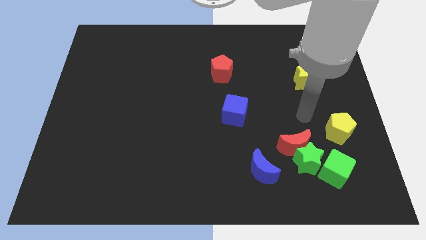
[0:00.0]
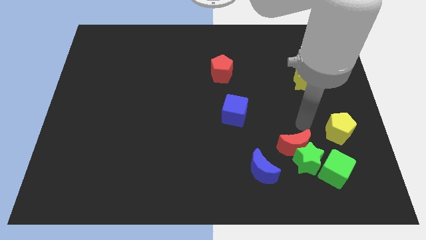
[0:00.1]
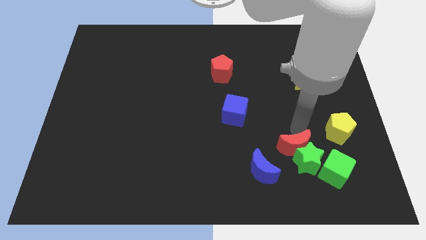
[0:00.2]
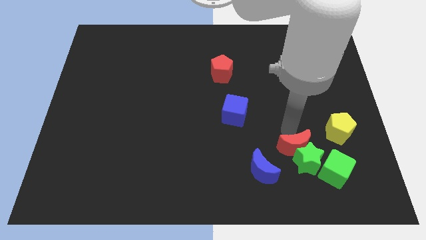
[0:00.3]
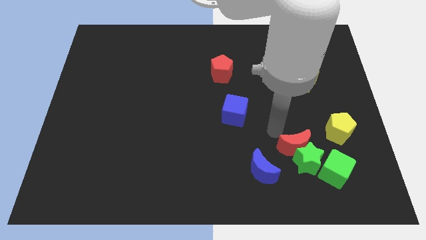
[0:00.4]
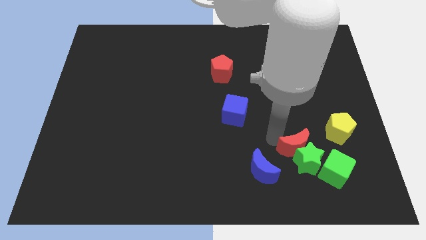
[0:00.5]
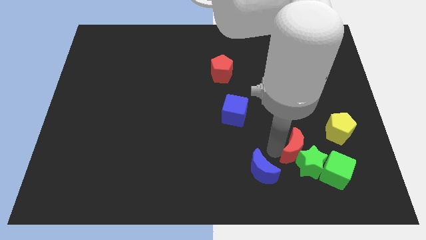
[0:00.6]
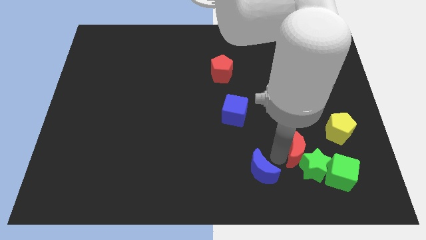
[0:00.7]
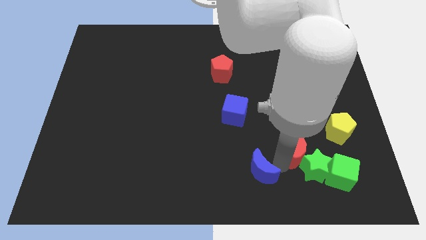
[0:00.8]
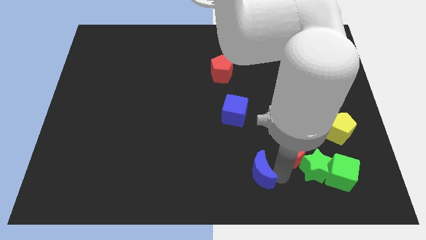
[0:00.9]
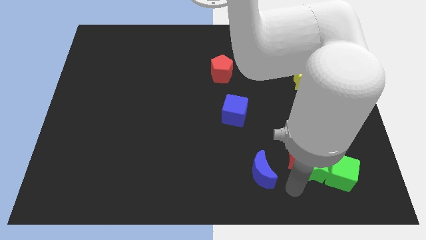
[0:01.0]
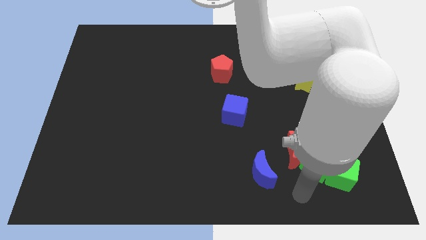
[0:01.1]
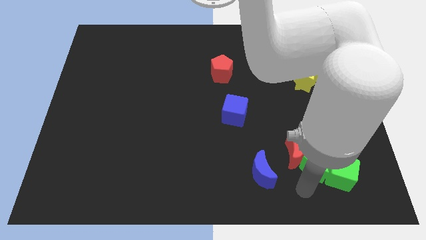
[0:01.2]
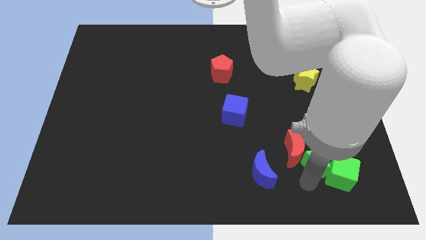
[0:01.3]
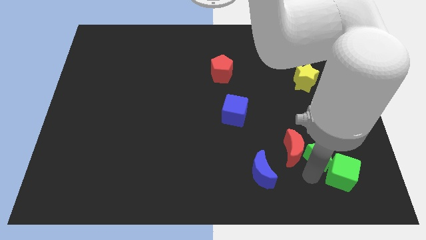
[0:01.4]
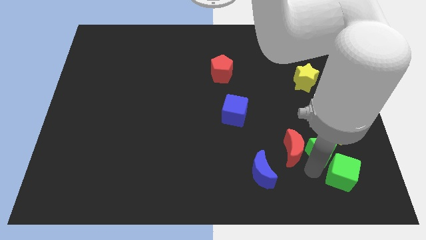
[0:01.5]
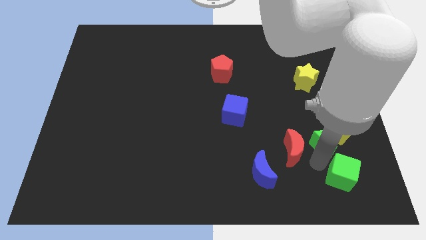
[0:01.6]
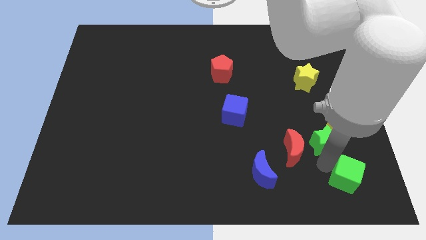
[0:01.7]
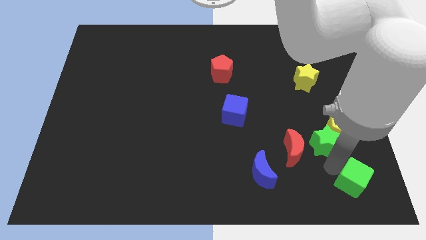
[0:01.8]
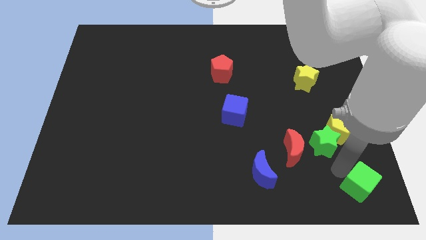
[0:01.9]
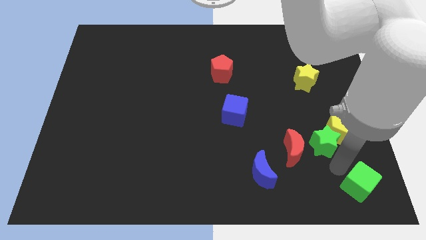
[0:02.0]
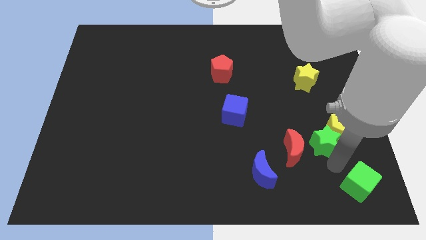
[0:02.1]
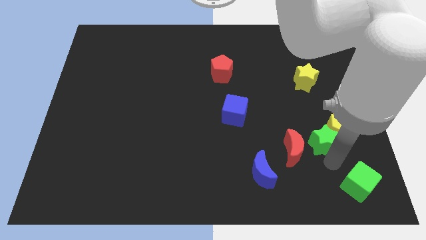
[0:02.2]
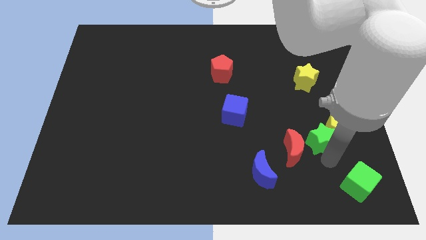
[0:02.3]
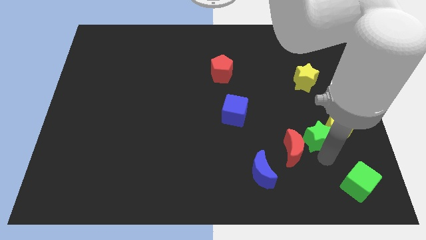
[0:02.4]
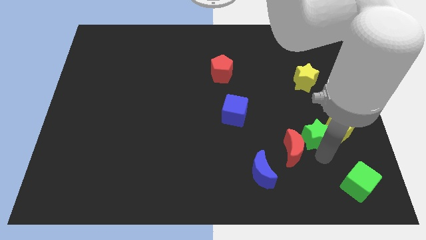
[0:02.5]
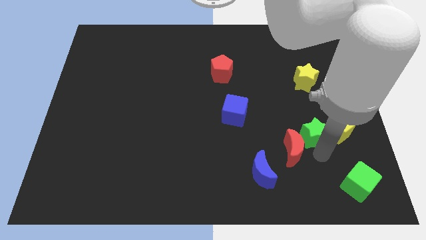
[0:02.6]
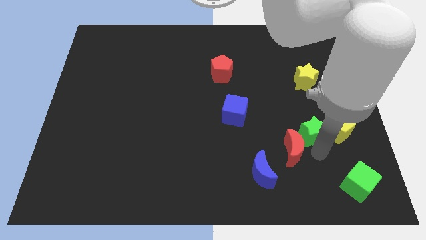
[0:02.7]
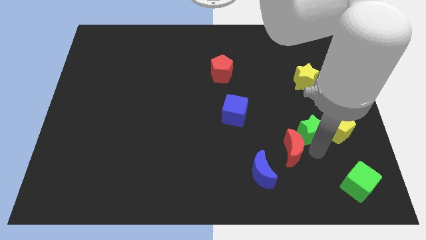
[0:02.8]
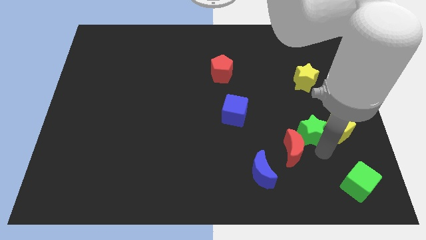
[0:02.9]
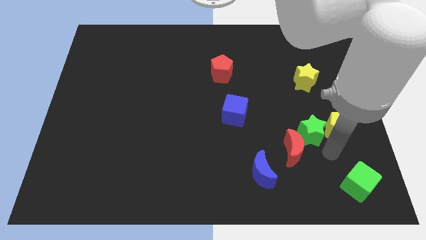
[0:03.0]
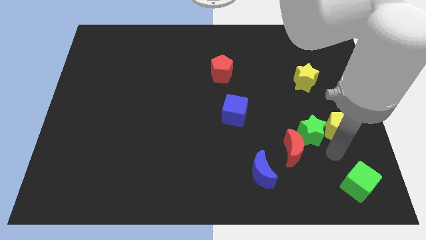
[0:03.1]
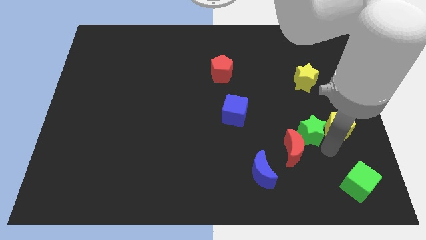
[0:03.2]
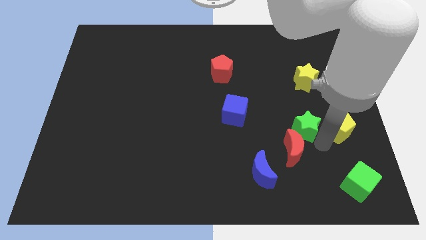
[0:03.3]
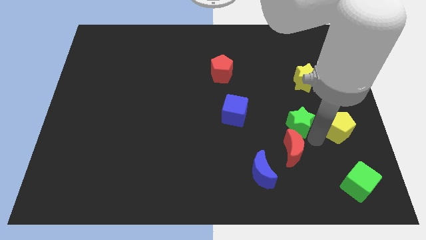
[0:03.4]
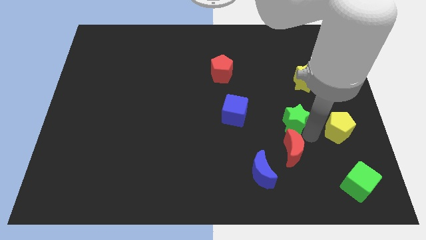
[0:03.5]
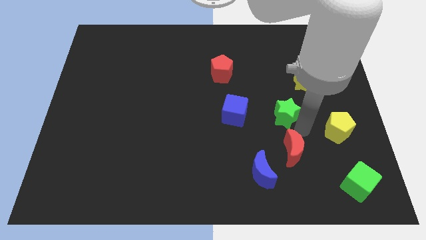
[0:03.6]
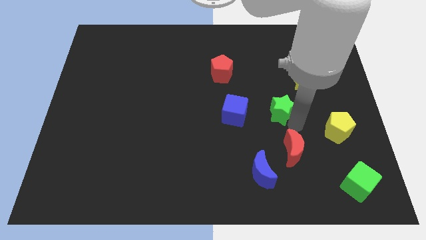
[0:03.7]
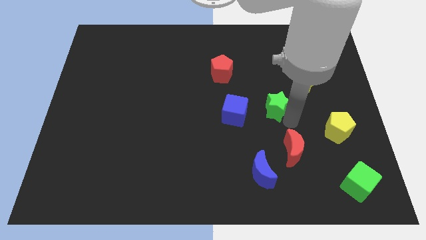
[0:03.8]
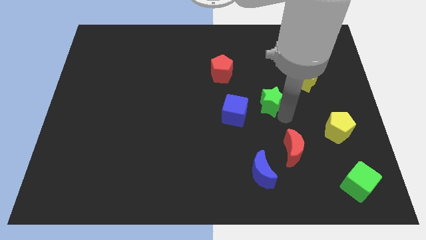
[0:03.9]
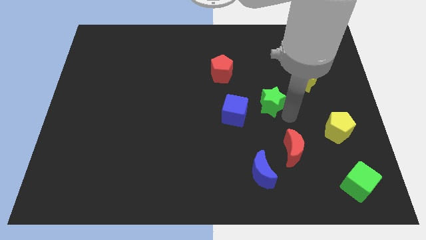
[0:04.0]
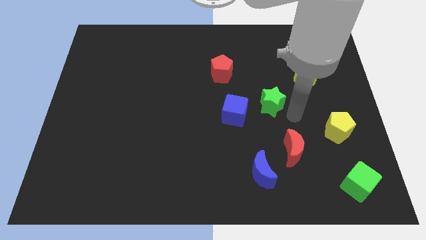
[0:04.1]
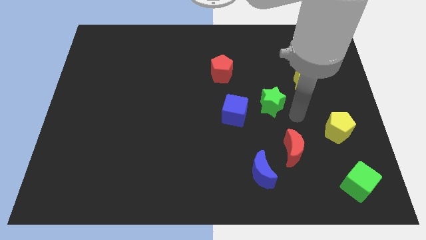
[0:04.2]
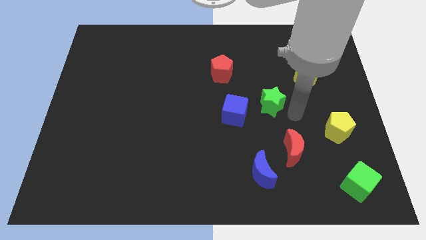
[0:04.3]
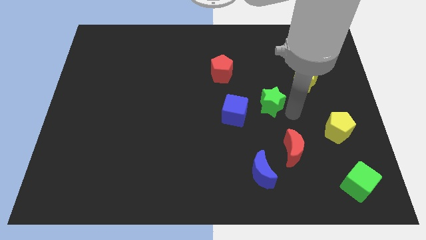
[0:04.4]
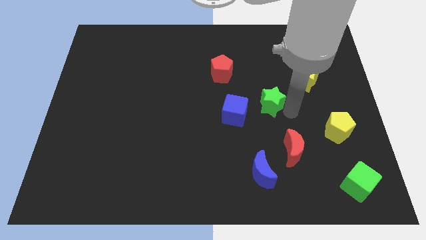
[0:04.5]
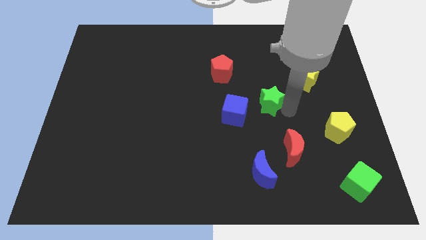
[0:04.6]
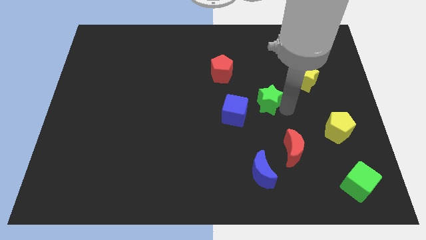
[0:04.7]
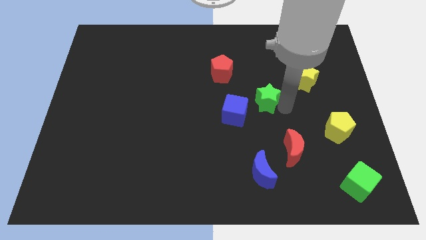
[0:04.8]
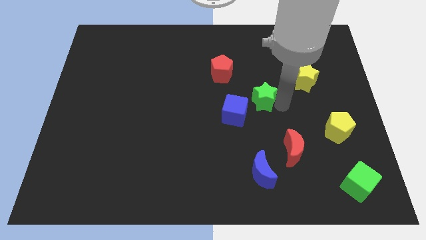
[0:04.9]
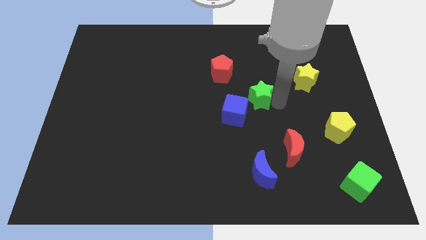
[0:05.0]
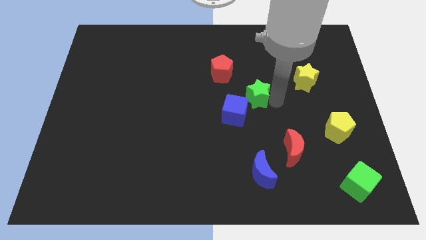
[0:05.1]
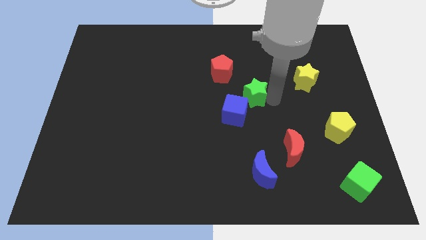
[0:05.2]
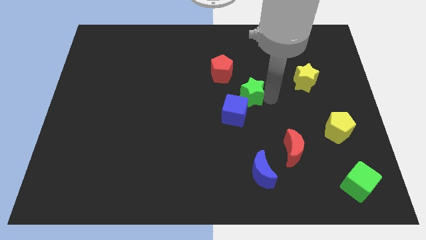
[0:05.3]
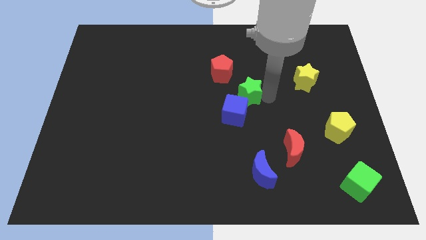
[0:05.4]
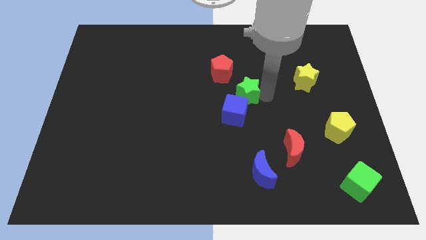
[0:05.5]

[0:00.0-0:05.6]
push the green star diagonally upwards and to the left

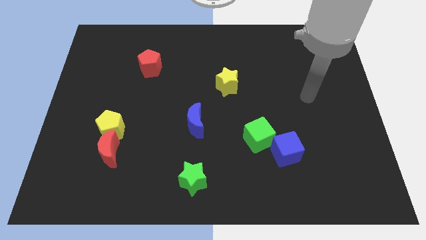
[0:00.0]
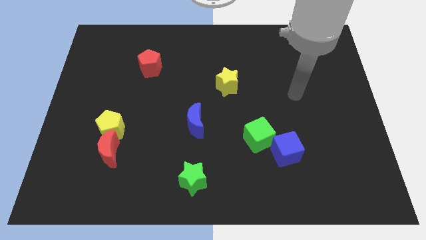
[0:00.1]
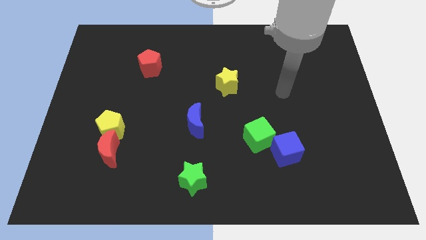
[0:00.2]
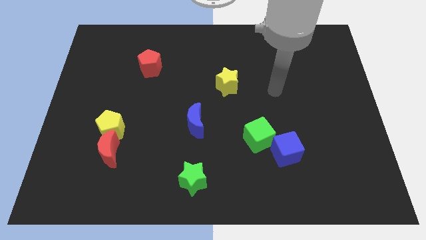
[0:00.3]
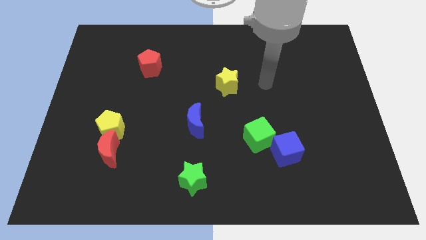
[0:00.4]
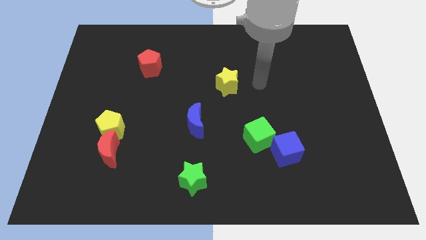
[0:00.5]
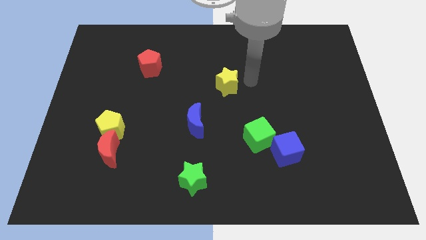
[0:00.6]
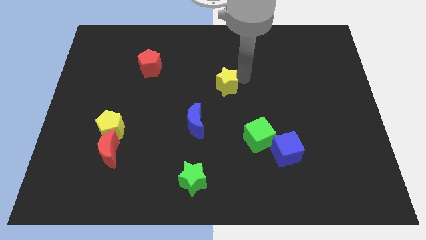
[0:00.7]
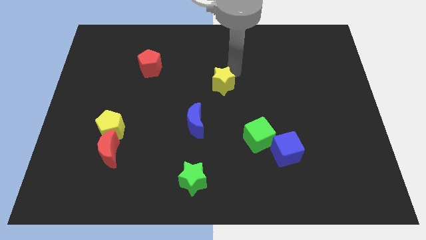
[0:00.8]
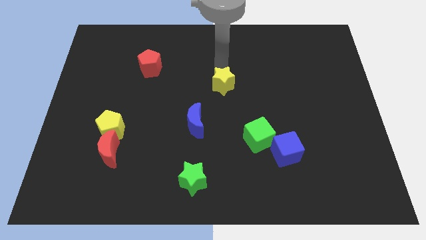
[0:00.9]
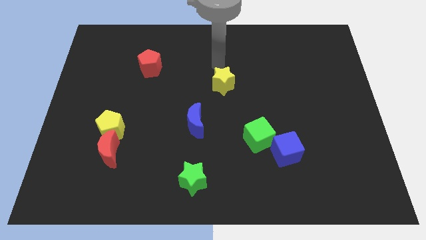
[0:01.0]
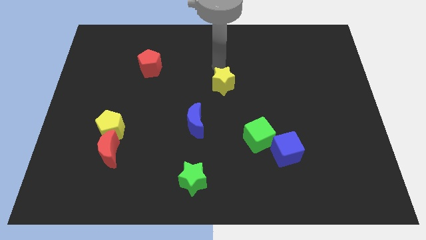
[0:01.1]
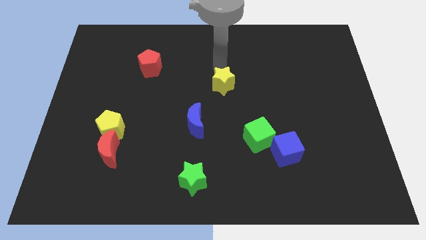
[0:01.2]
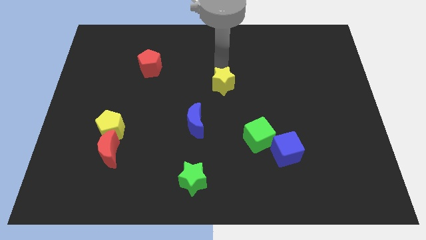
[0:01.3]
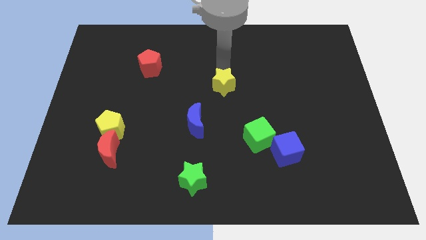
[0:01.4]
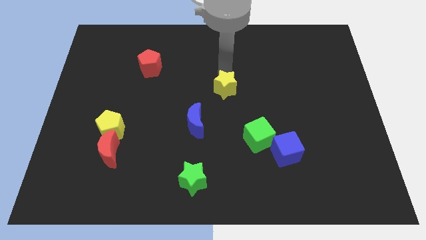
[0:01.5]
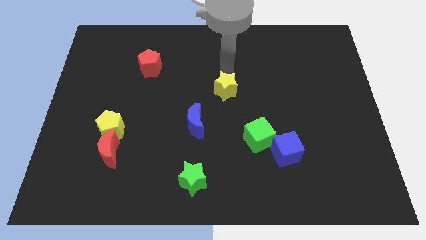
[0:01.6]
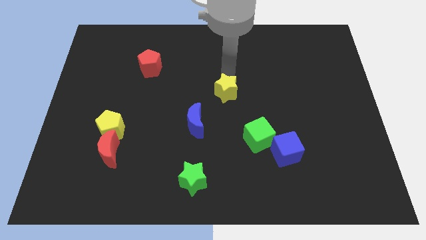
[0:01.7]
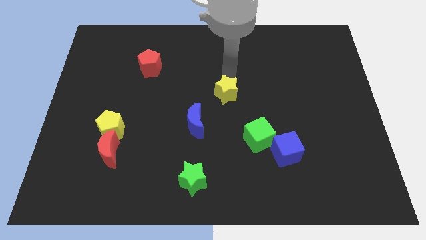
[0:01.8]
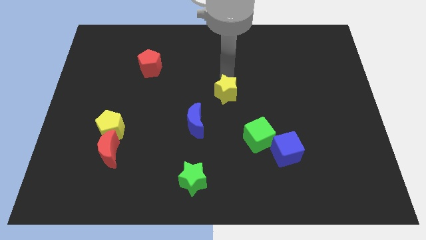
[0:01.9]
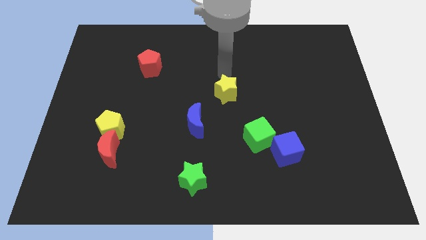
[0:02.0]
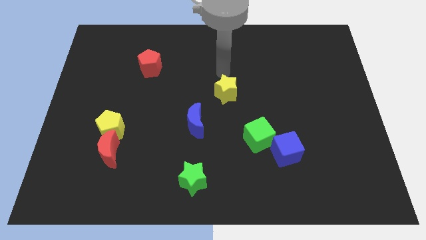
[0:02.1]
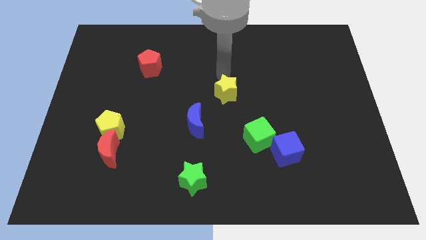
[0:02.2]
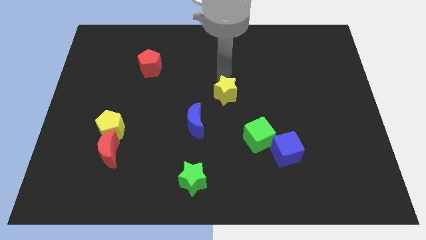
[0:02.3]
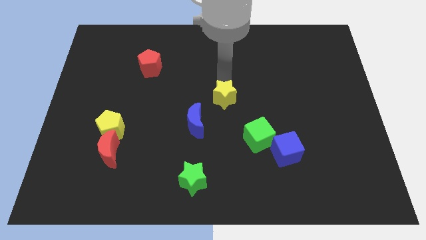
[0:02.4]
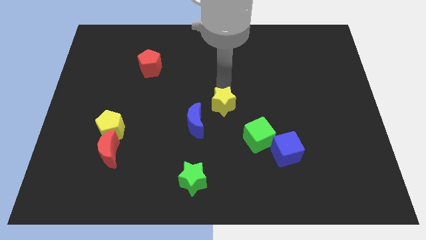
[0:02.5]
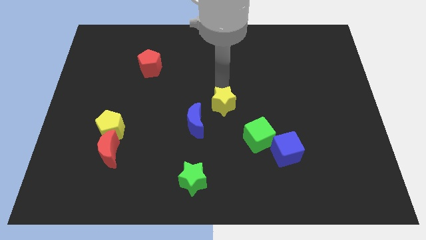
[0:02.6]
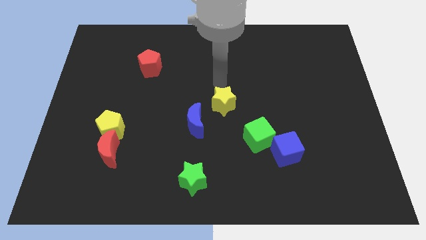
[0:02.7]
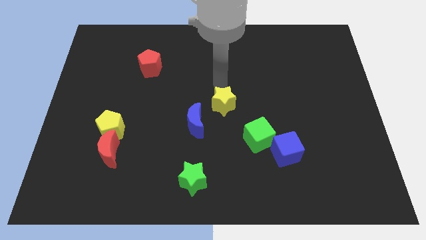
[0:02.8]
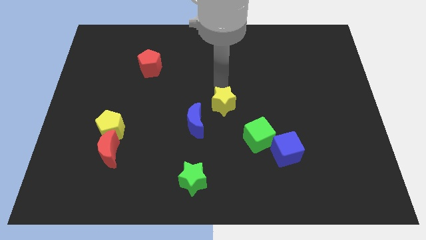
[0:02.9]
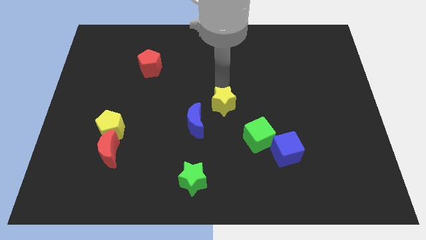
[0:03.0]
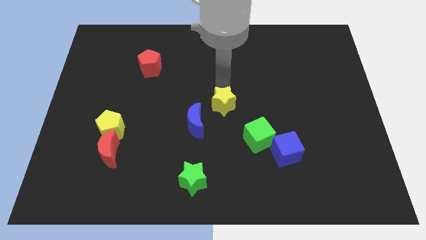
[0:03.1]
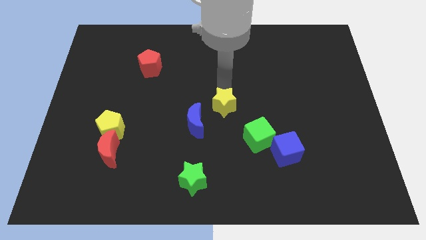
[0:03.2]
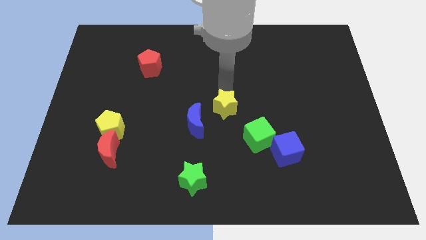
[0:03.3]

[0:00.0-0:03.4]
slightly push the yellow star down
